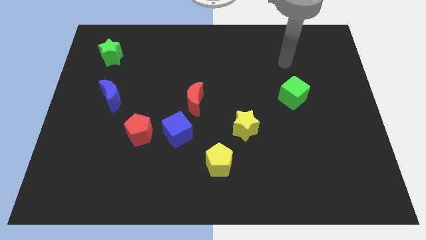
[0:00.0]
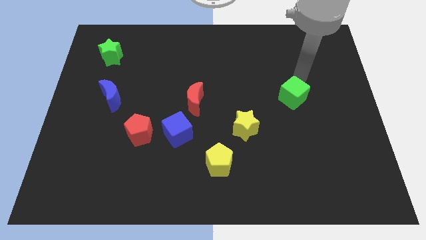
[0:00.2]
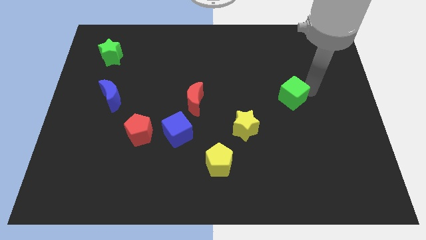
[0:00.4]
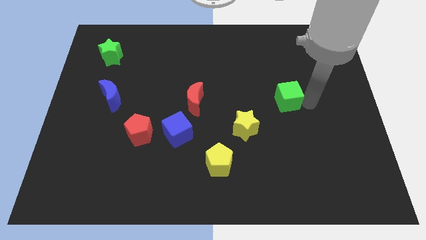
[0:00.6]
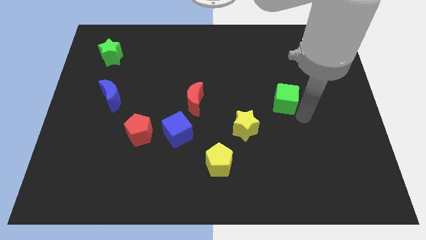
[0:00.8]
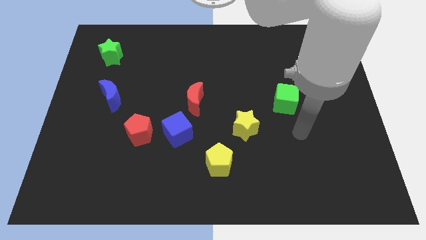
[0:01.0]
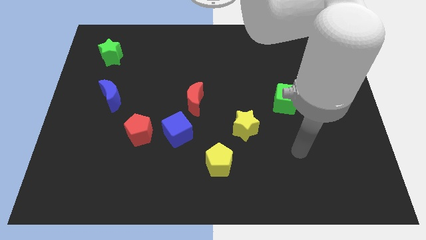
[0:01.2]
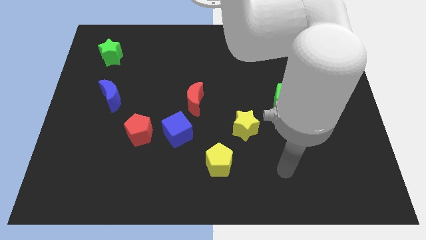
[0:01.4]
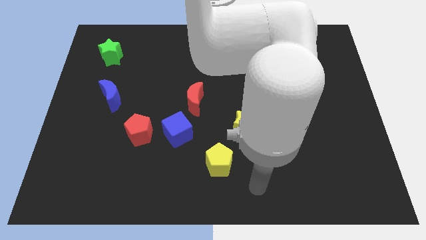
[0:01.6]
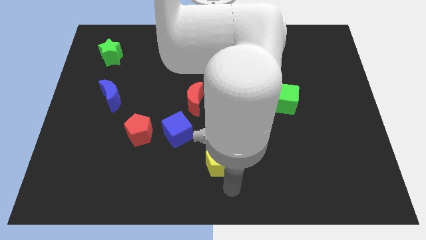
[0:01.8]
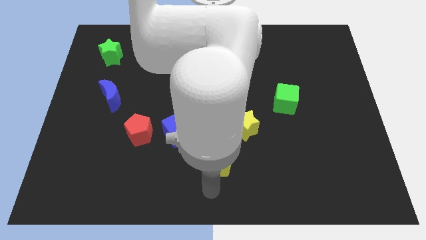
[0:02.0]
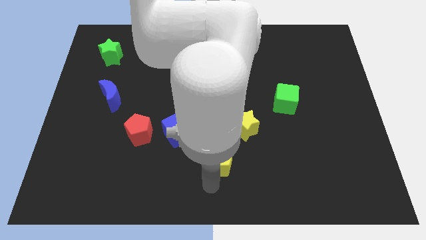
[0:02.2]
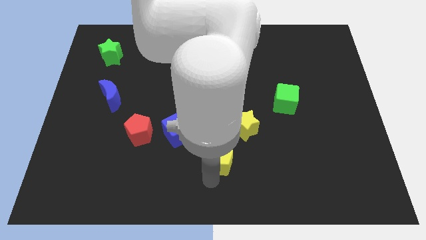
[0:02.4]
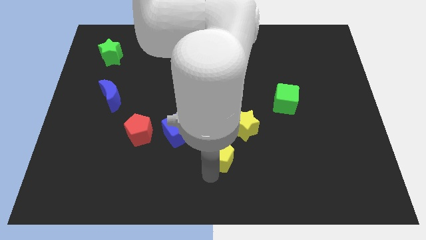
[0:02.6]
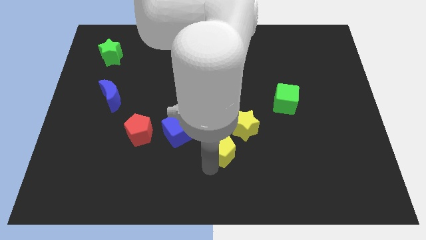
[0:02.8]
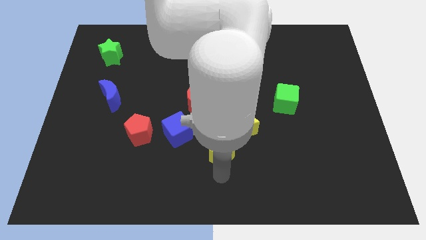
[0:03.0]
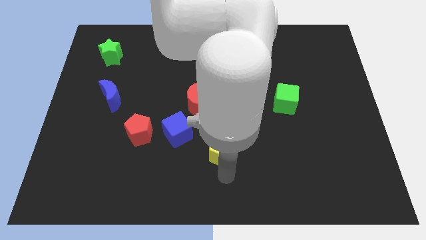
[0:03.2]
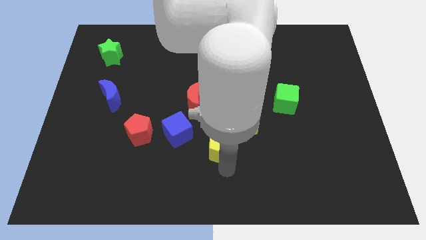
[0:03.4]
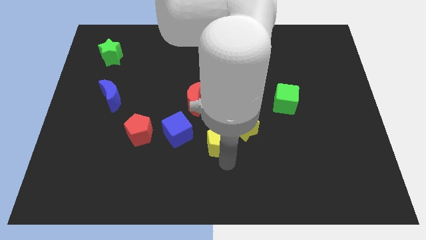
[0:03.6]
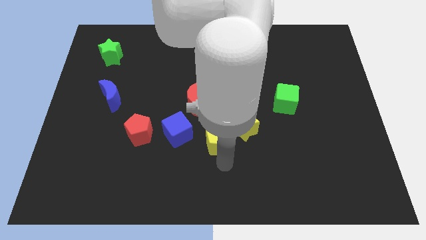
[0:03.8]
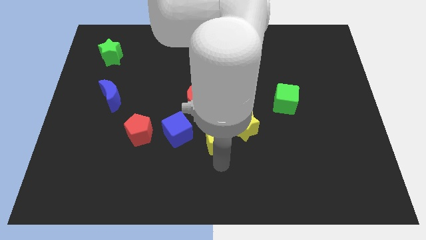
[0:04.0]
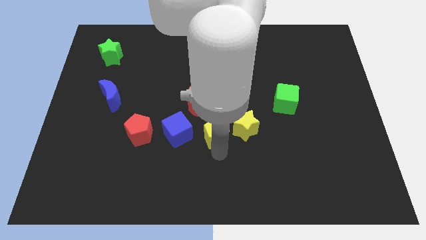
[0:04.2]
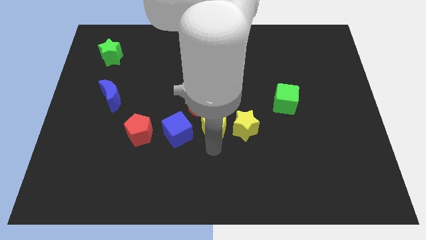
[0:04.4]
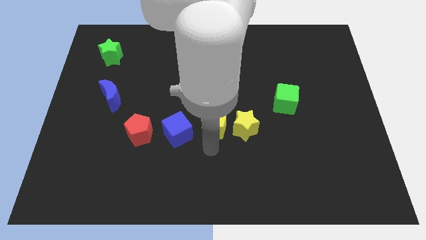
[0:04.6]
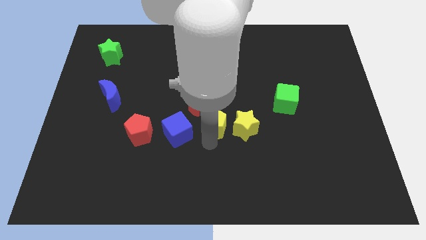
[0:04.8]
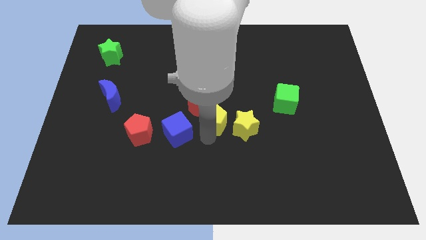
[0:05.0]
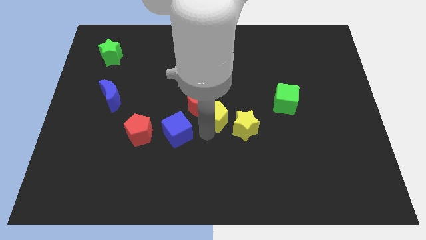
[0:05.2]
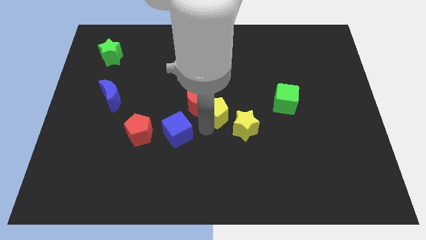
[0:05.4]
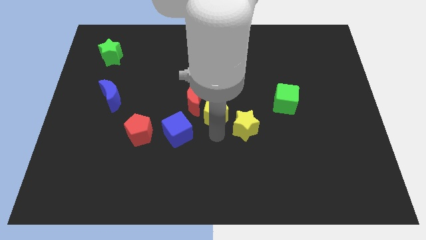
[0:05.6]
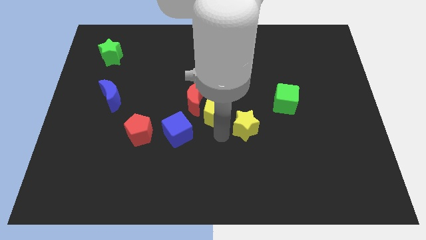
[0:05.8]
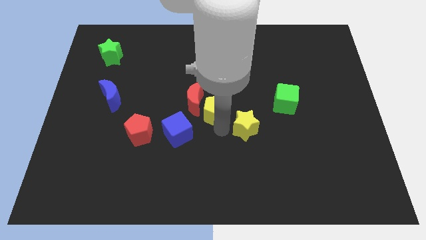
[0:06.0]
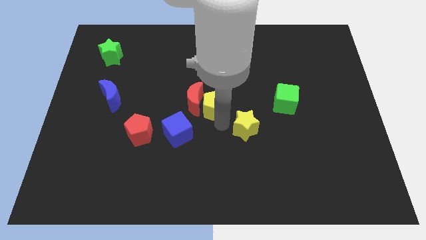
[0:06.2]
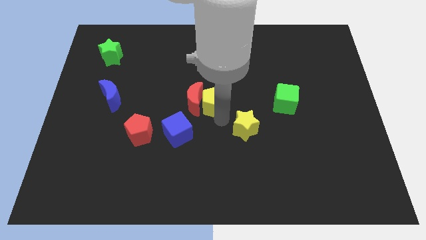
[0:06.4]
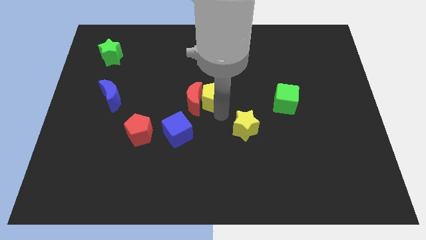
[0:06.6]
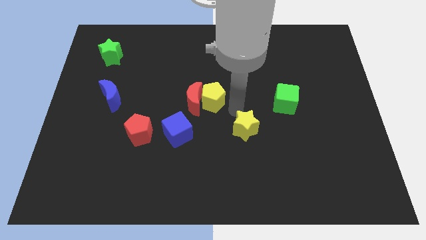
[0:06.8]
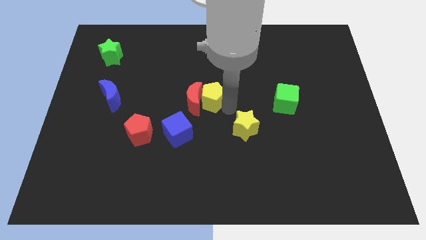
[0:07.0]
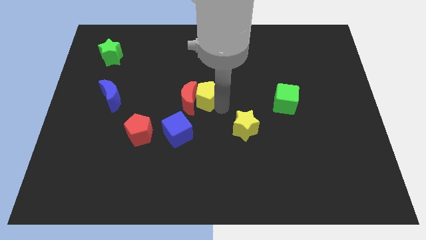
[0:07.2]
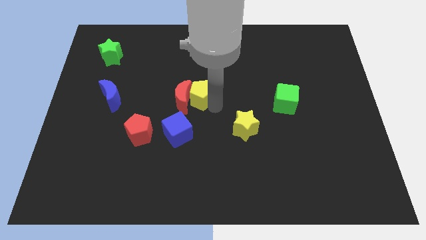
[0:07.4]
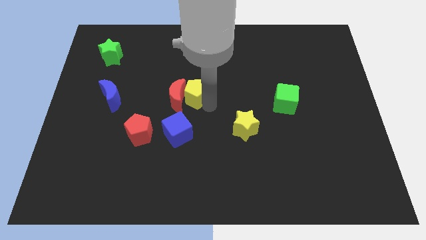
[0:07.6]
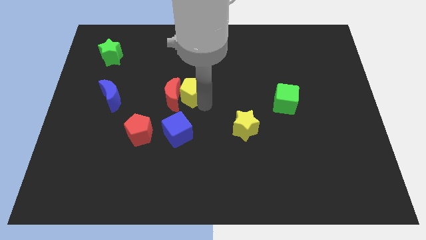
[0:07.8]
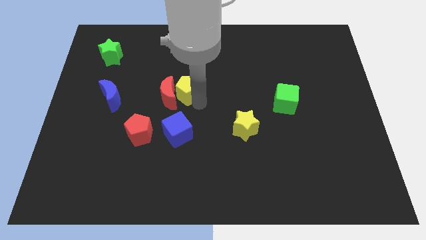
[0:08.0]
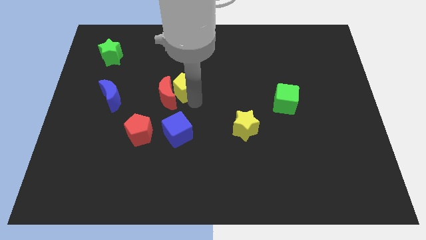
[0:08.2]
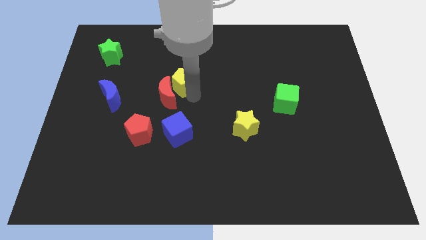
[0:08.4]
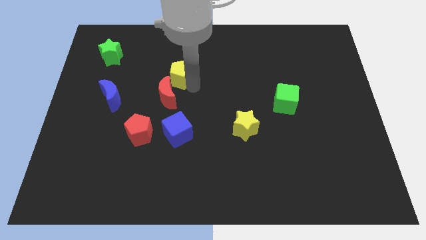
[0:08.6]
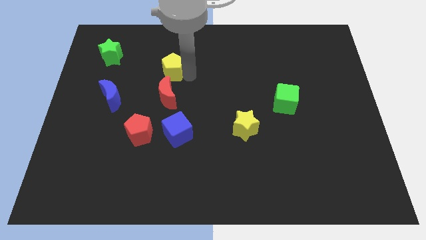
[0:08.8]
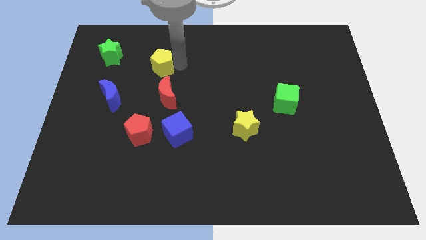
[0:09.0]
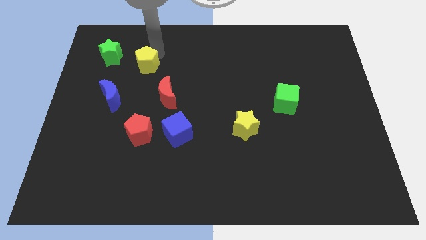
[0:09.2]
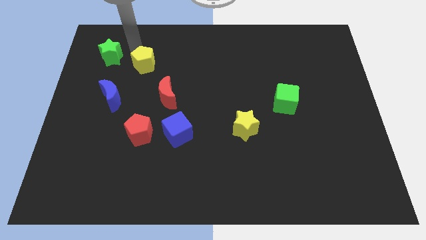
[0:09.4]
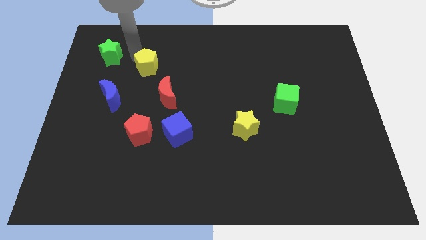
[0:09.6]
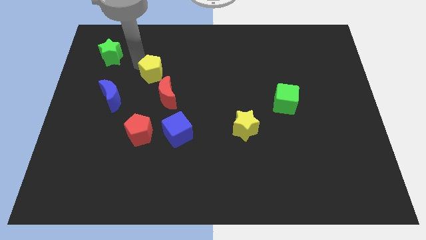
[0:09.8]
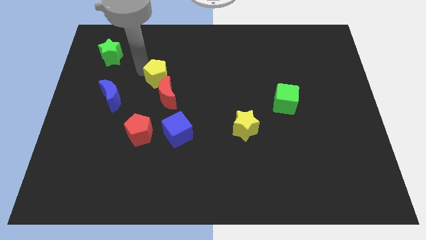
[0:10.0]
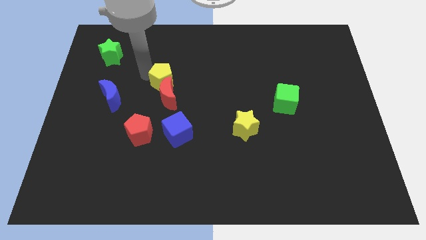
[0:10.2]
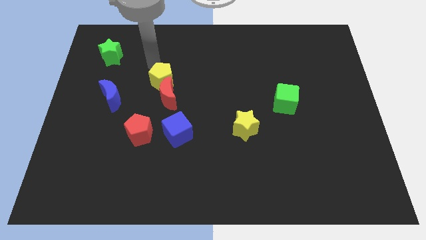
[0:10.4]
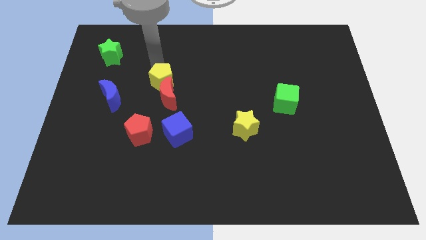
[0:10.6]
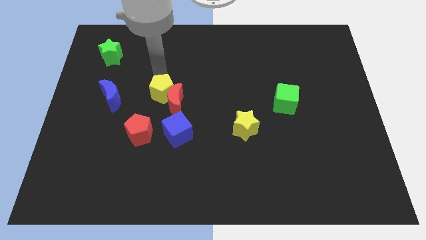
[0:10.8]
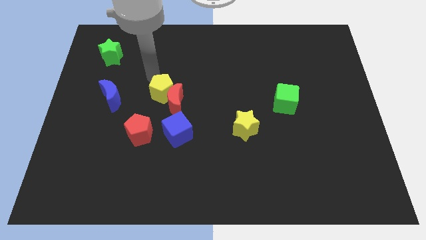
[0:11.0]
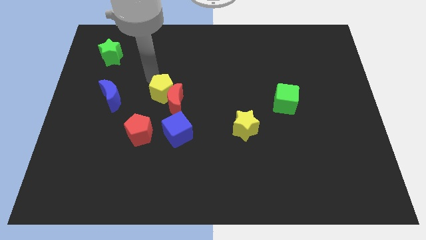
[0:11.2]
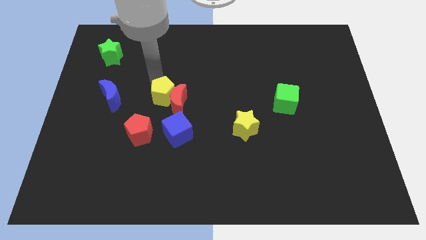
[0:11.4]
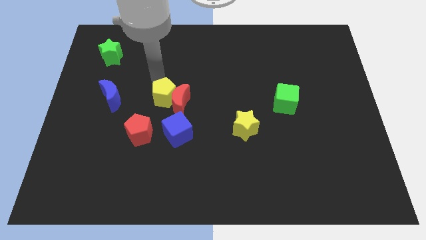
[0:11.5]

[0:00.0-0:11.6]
push the yellow pentagon diagonally up and to the left of the blue cube

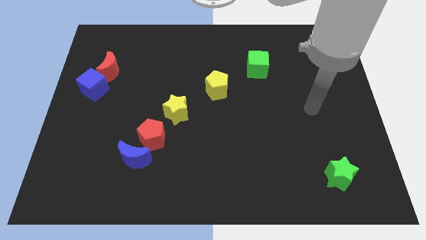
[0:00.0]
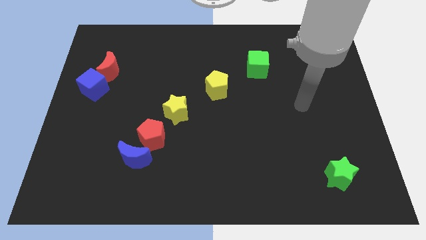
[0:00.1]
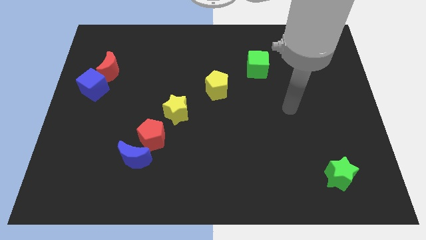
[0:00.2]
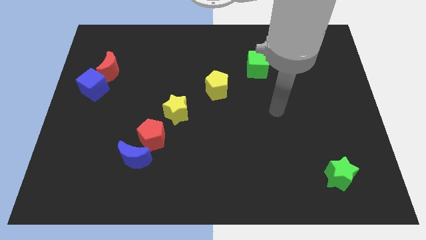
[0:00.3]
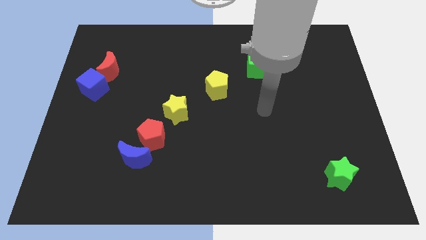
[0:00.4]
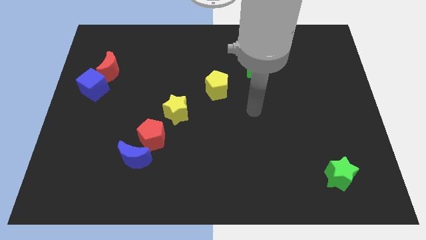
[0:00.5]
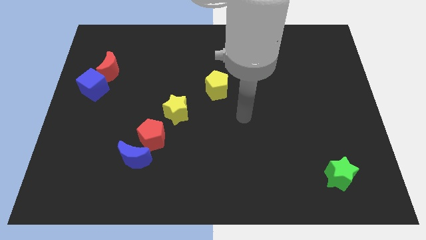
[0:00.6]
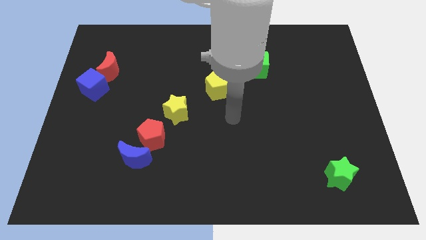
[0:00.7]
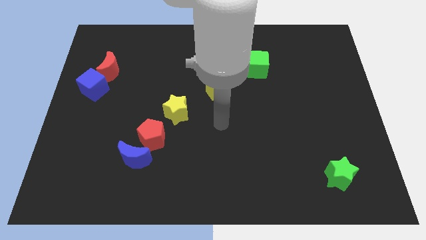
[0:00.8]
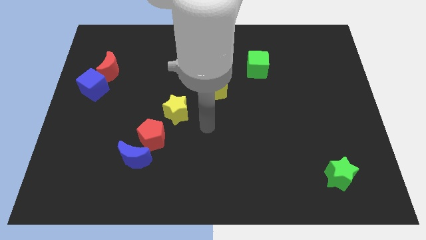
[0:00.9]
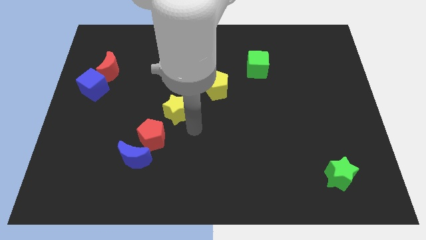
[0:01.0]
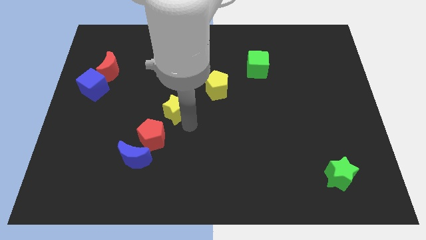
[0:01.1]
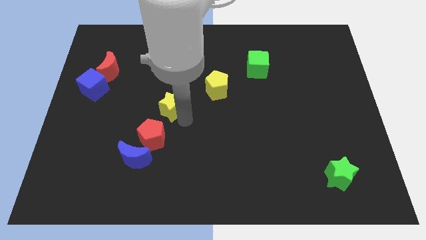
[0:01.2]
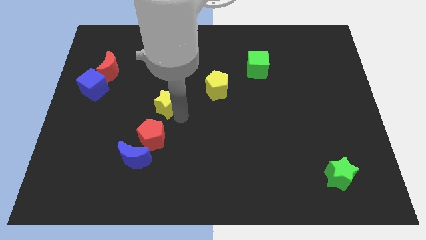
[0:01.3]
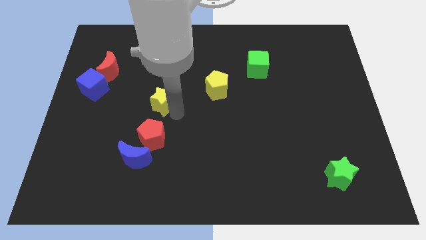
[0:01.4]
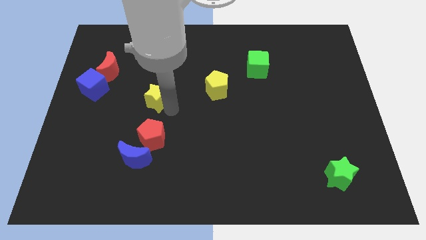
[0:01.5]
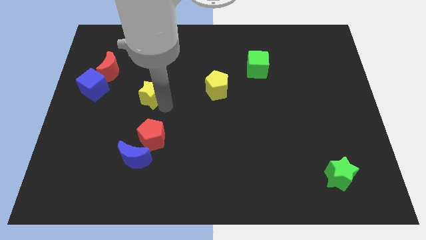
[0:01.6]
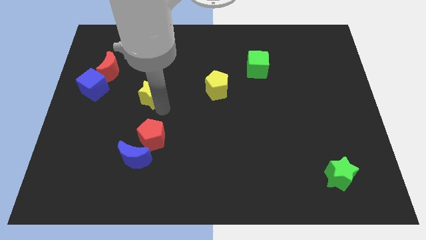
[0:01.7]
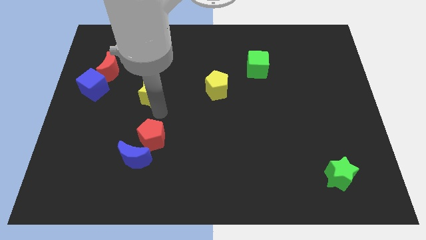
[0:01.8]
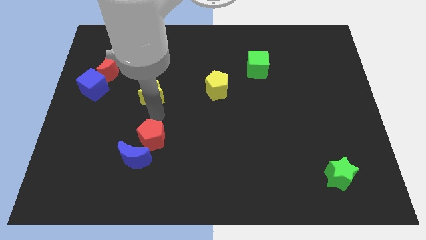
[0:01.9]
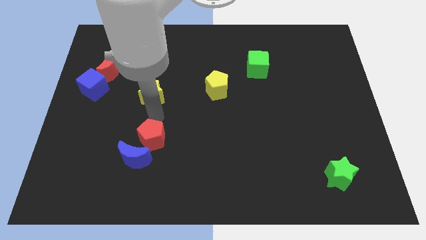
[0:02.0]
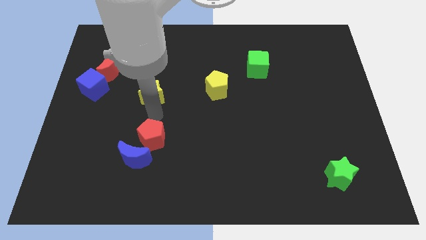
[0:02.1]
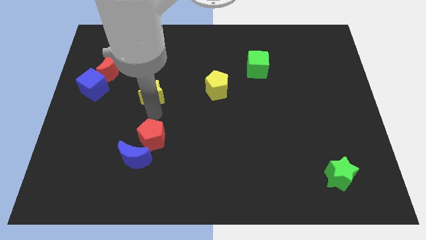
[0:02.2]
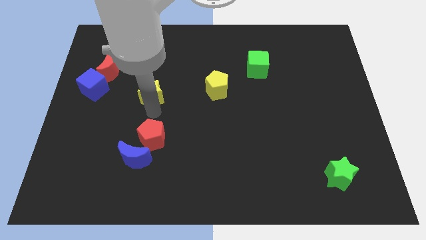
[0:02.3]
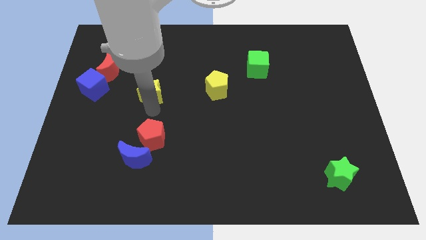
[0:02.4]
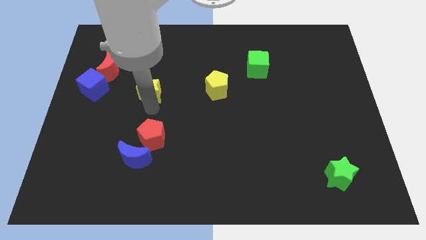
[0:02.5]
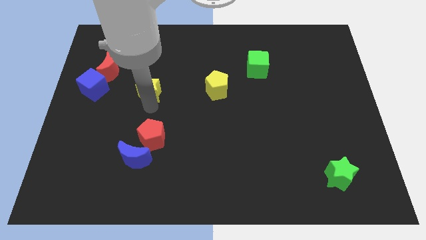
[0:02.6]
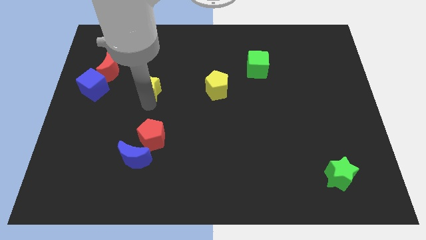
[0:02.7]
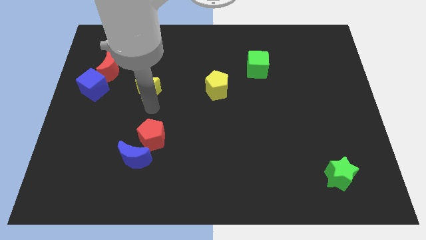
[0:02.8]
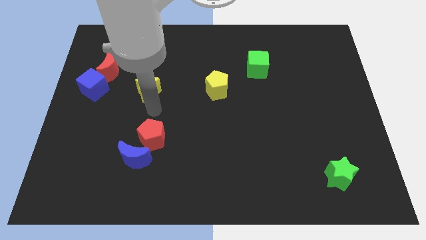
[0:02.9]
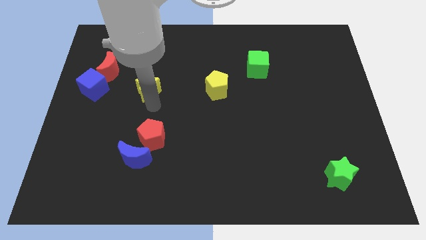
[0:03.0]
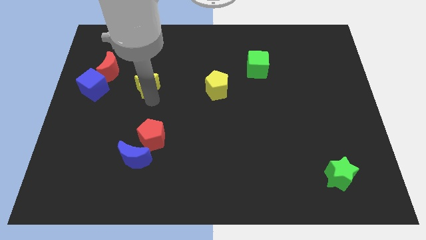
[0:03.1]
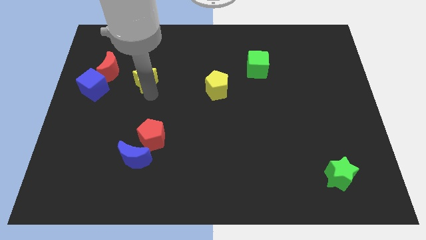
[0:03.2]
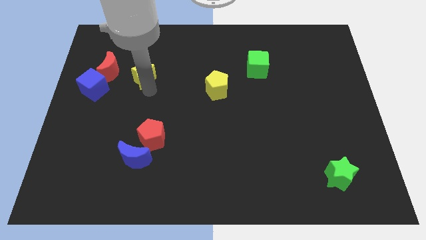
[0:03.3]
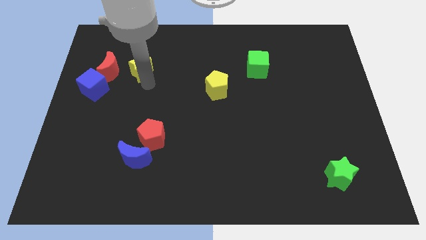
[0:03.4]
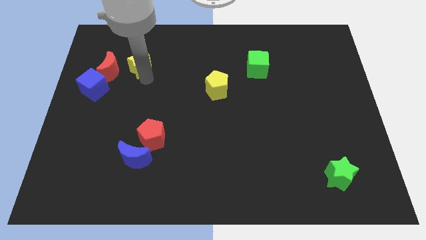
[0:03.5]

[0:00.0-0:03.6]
slide the yellow star to the top right of the red moon
